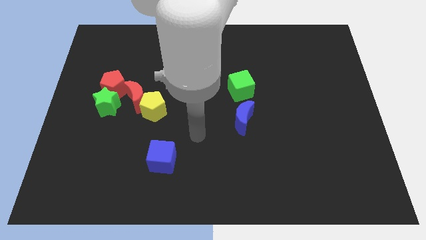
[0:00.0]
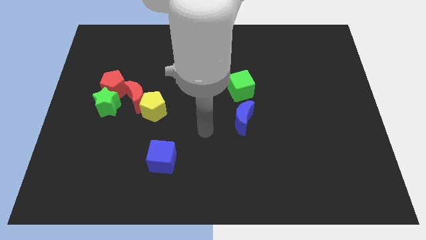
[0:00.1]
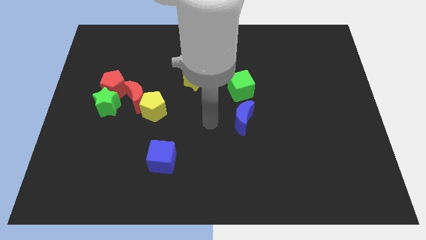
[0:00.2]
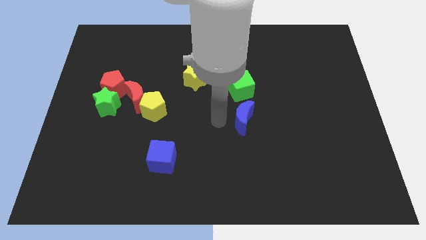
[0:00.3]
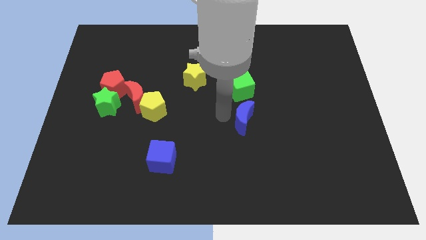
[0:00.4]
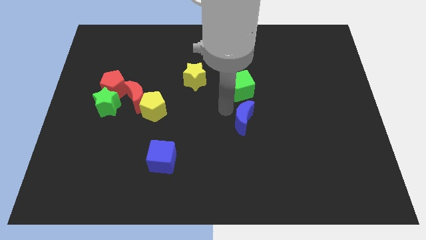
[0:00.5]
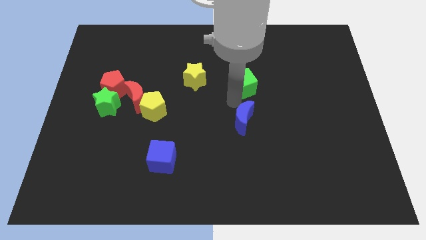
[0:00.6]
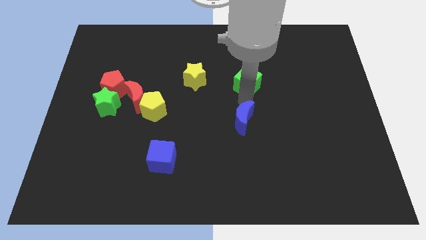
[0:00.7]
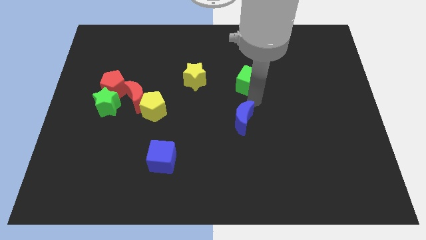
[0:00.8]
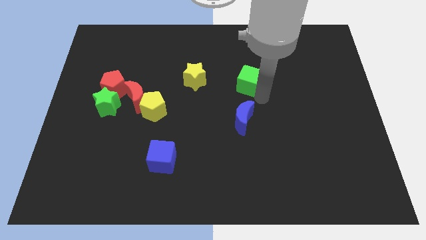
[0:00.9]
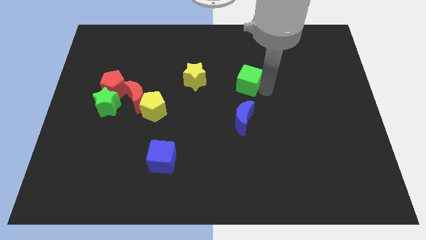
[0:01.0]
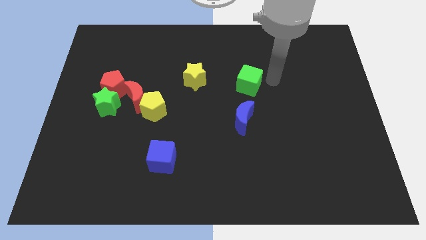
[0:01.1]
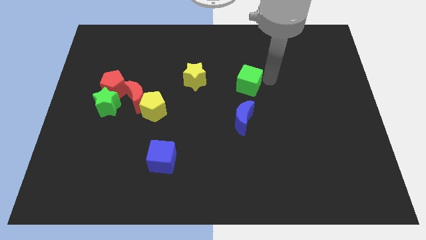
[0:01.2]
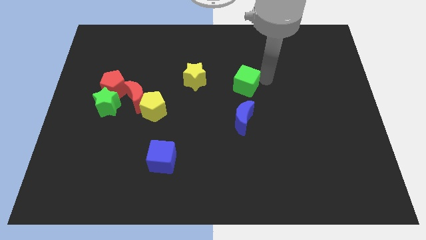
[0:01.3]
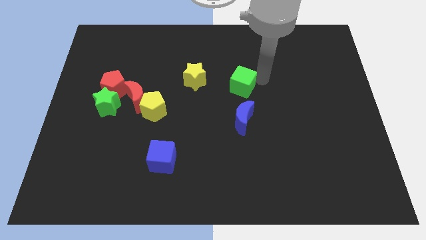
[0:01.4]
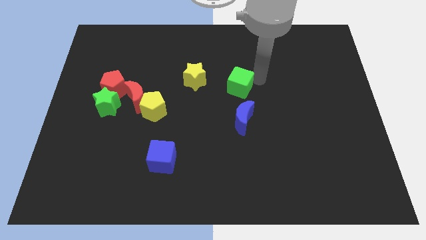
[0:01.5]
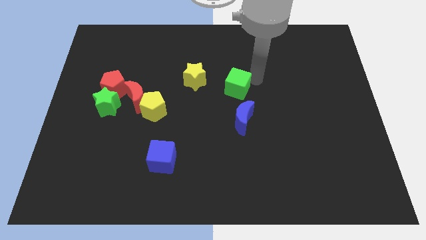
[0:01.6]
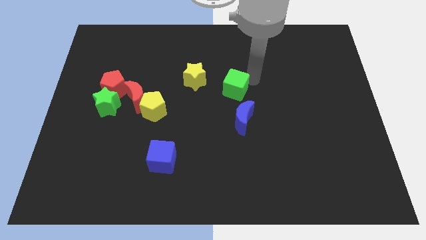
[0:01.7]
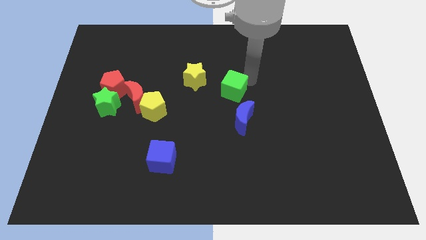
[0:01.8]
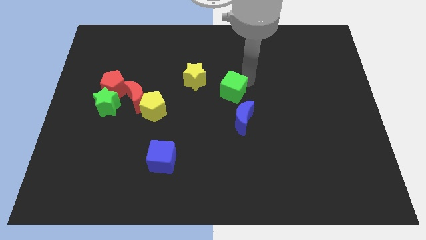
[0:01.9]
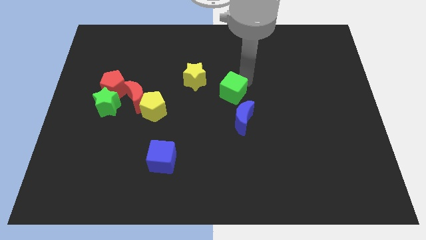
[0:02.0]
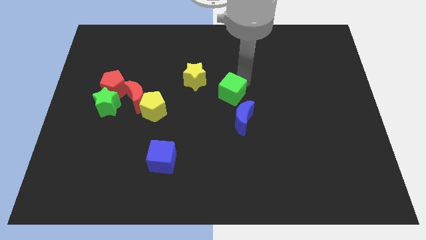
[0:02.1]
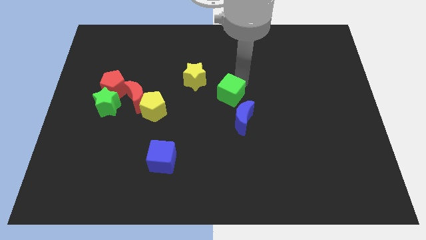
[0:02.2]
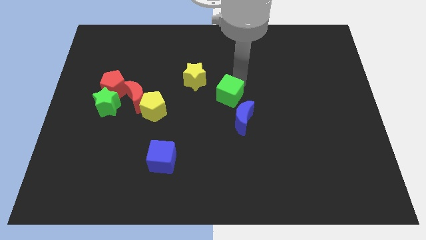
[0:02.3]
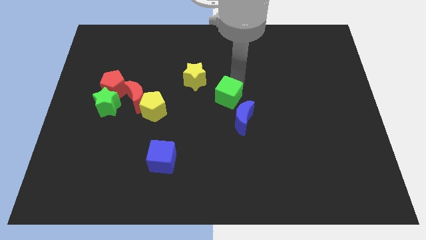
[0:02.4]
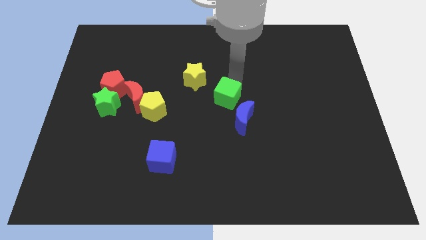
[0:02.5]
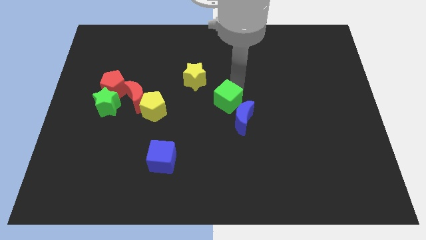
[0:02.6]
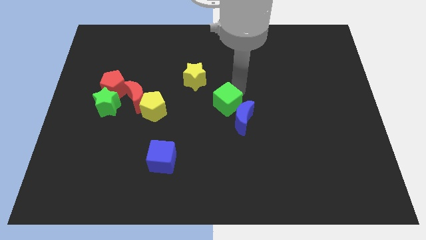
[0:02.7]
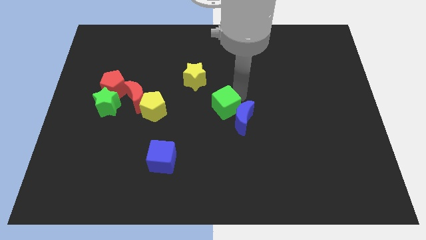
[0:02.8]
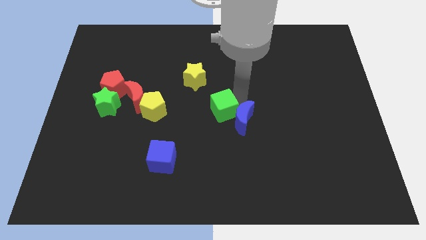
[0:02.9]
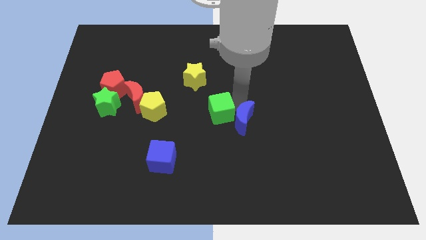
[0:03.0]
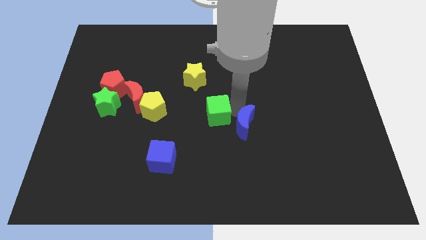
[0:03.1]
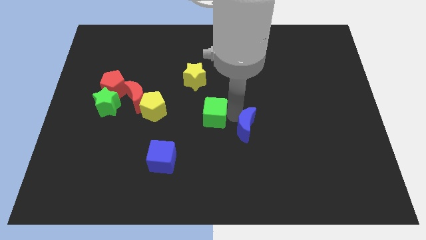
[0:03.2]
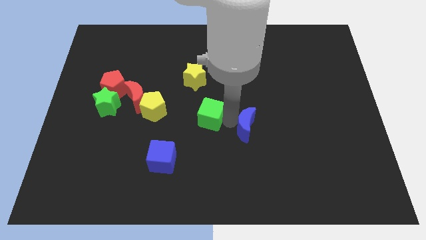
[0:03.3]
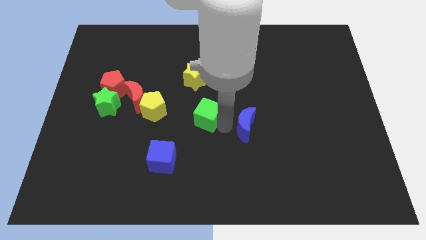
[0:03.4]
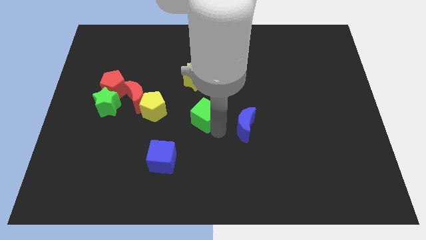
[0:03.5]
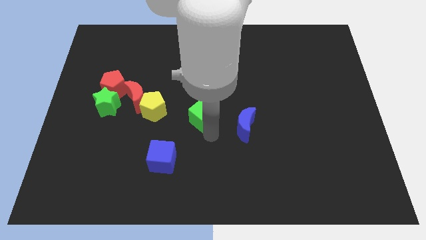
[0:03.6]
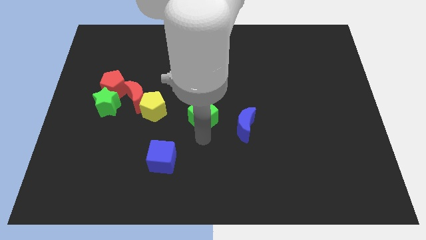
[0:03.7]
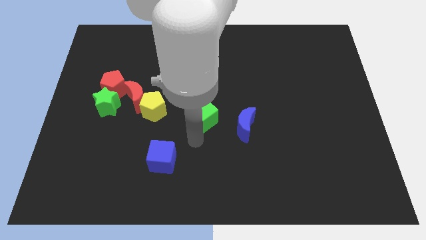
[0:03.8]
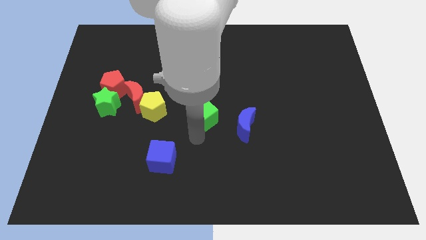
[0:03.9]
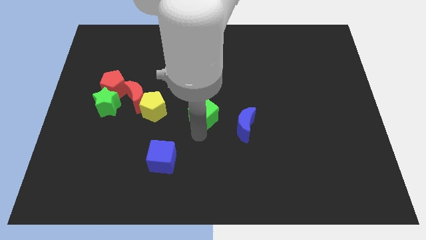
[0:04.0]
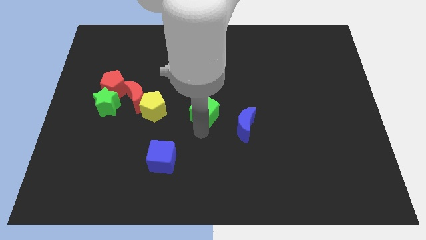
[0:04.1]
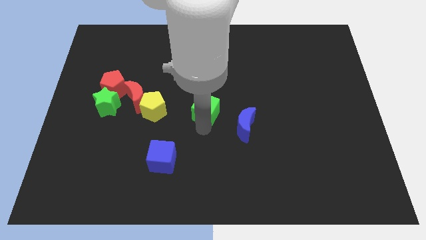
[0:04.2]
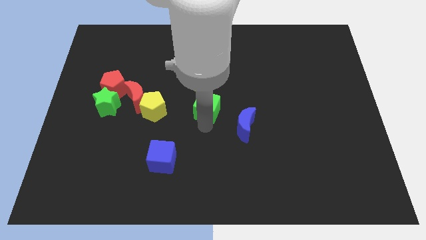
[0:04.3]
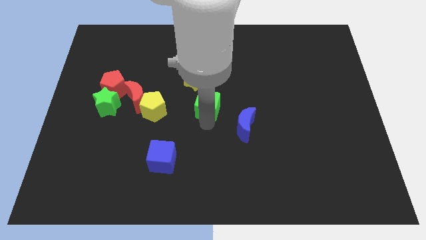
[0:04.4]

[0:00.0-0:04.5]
slide the green cube a little left

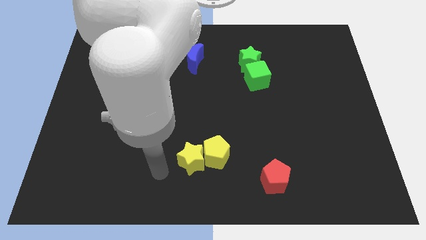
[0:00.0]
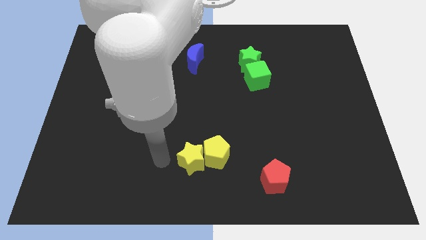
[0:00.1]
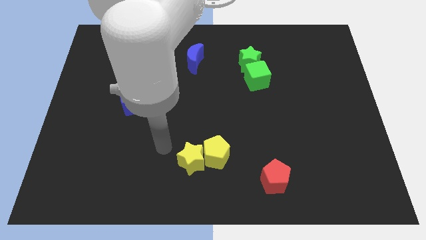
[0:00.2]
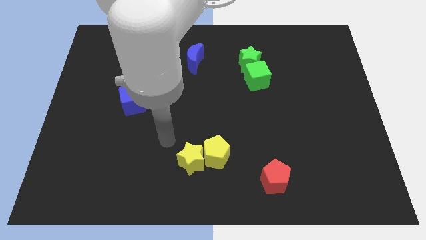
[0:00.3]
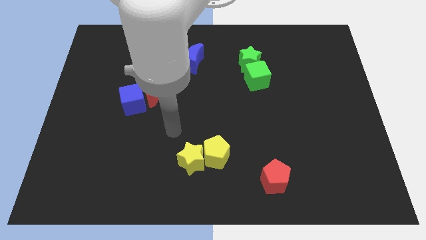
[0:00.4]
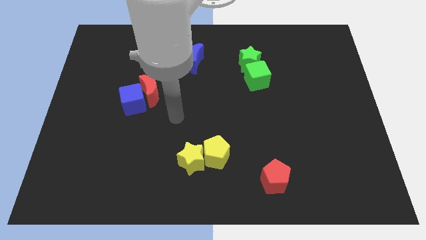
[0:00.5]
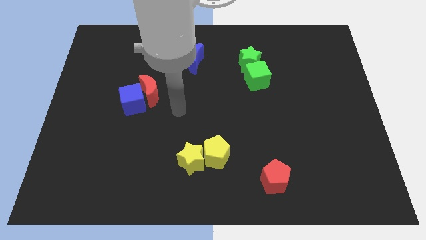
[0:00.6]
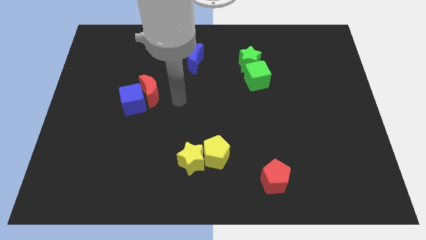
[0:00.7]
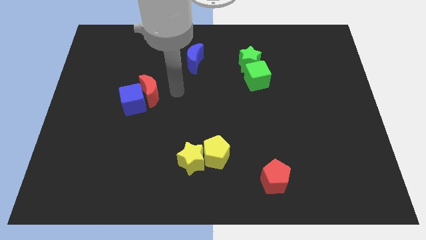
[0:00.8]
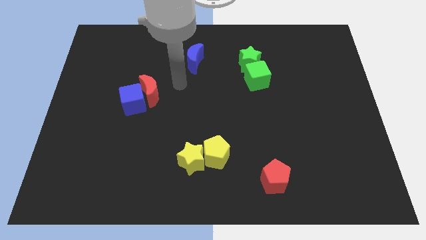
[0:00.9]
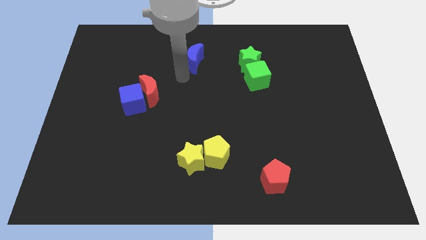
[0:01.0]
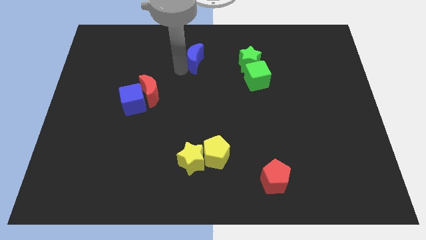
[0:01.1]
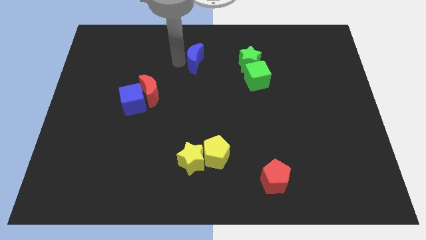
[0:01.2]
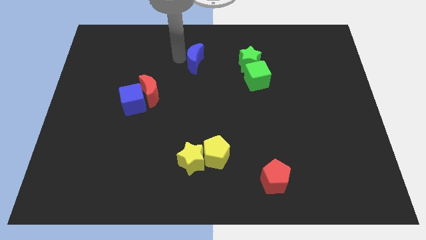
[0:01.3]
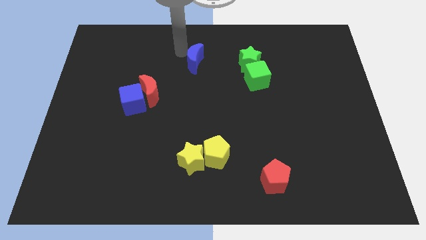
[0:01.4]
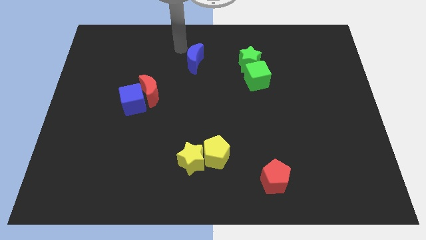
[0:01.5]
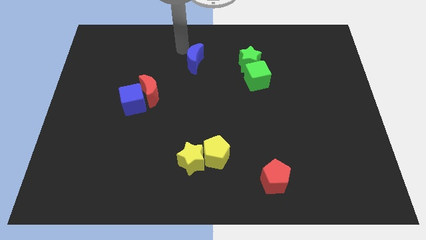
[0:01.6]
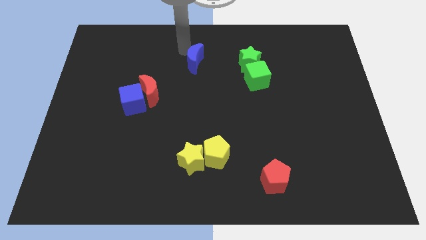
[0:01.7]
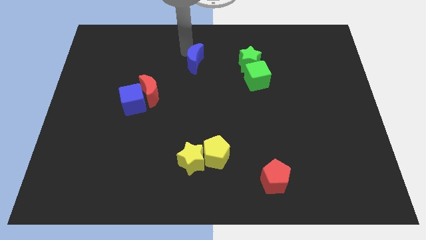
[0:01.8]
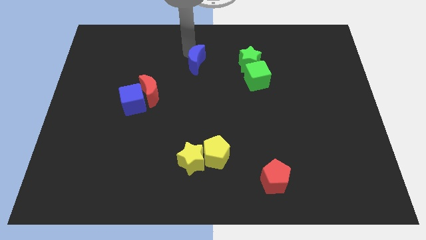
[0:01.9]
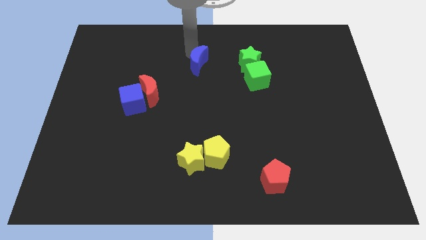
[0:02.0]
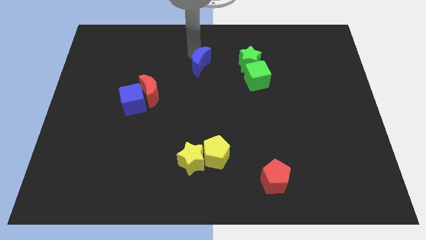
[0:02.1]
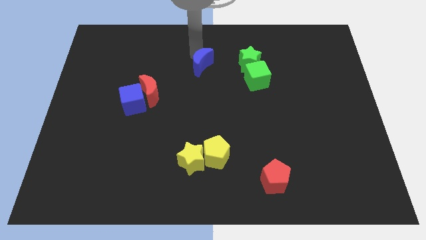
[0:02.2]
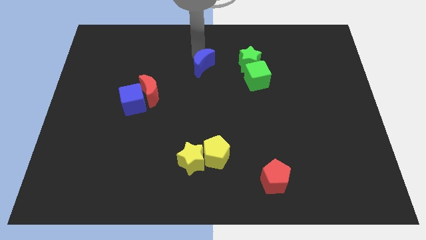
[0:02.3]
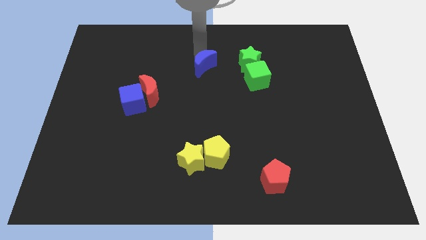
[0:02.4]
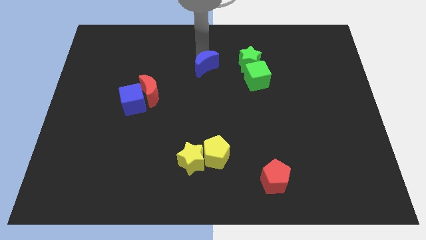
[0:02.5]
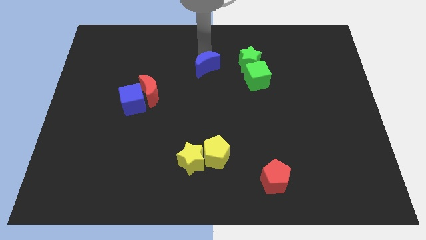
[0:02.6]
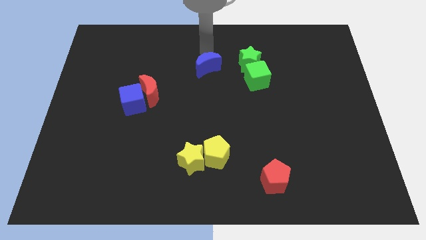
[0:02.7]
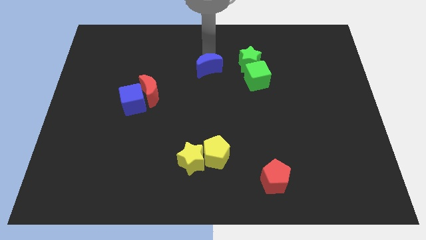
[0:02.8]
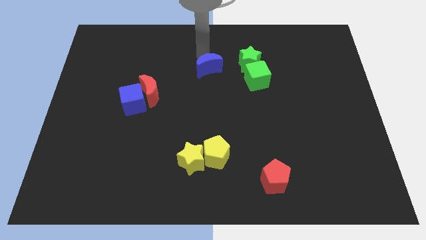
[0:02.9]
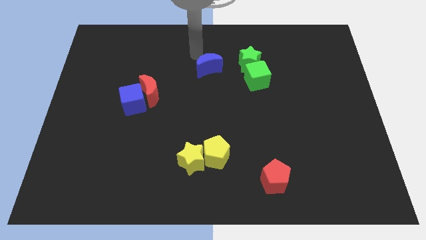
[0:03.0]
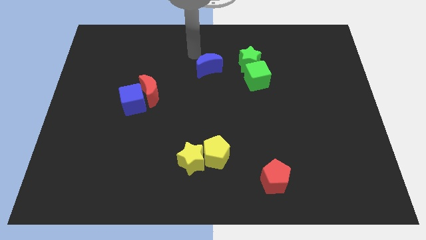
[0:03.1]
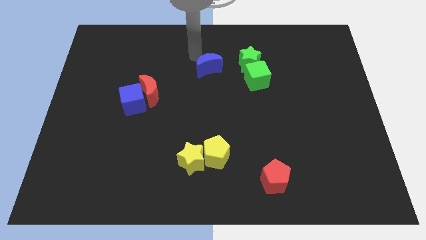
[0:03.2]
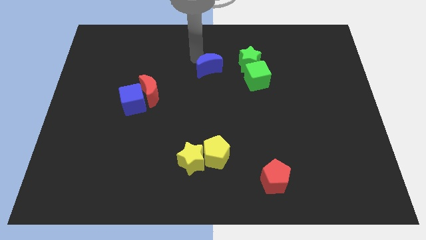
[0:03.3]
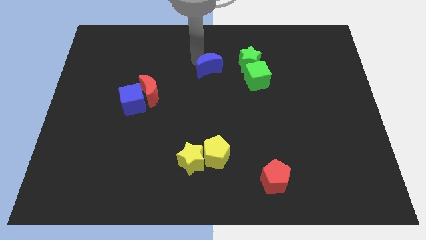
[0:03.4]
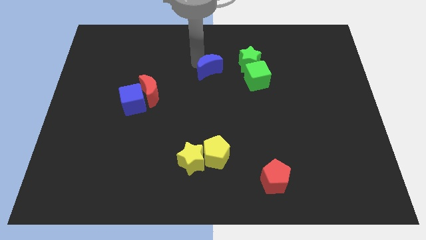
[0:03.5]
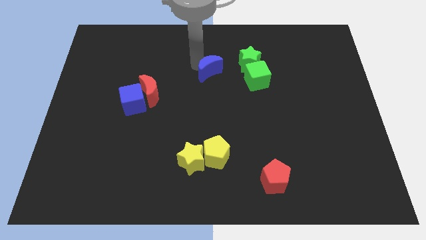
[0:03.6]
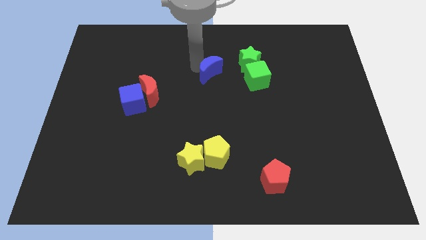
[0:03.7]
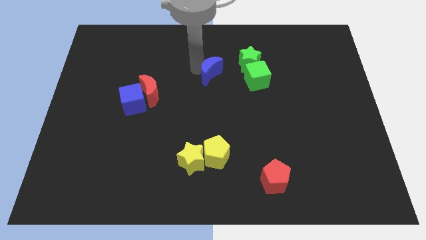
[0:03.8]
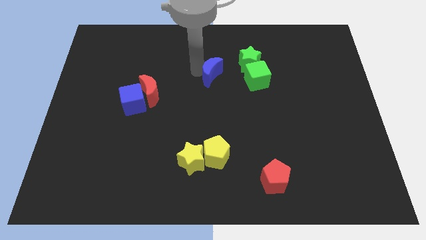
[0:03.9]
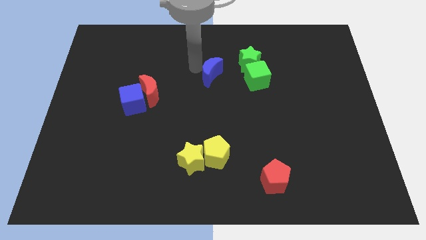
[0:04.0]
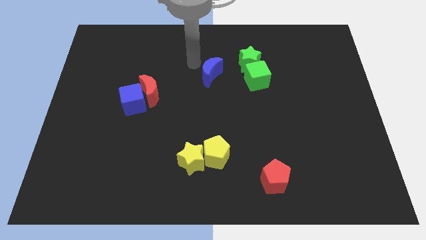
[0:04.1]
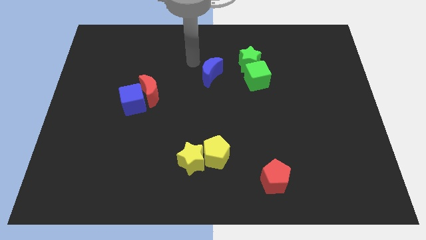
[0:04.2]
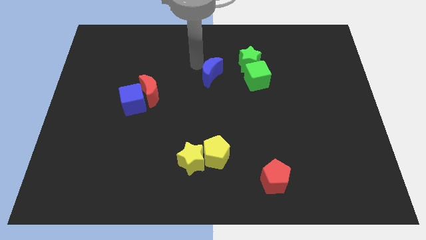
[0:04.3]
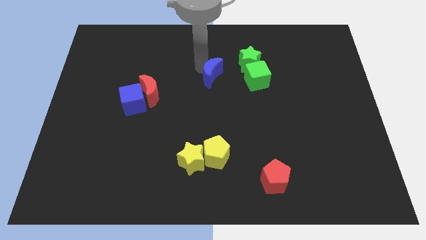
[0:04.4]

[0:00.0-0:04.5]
move the blue moon downwards and then right a bit
